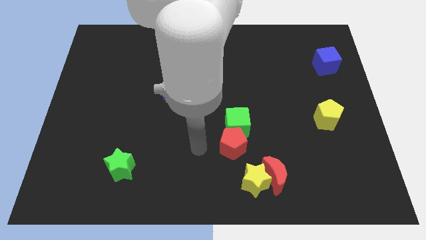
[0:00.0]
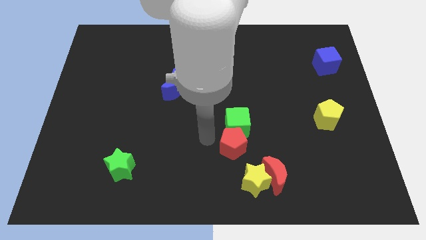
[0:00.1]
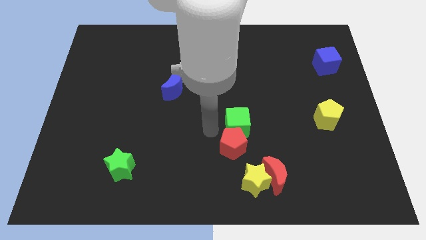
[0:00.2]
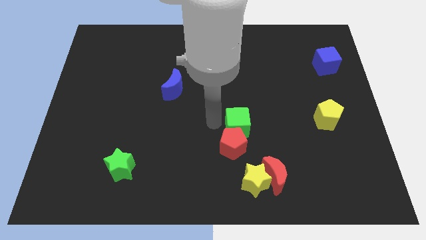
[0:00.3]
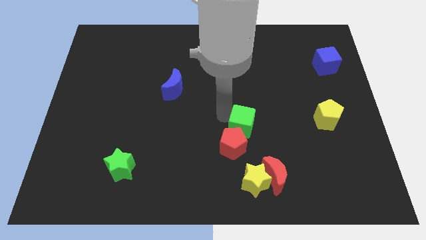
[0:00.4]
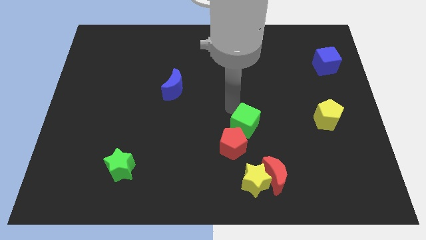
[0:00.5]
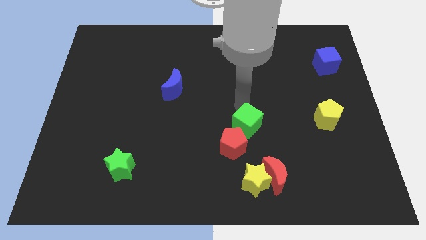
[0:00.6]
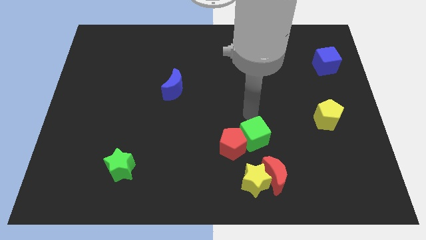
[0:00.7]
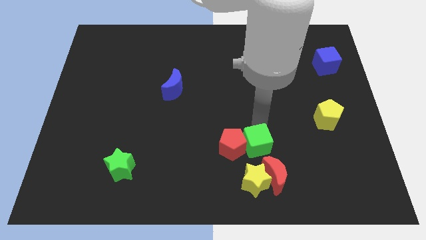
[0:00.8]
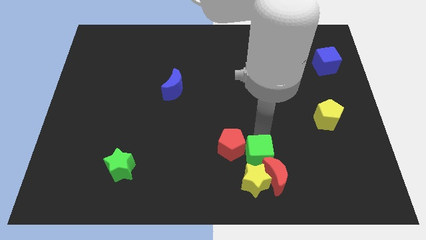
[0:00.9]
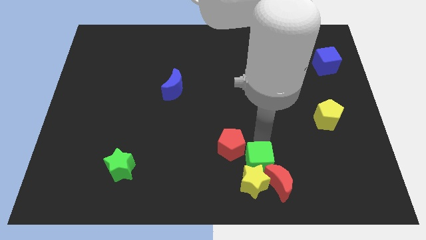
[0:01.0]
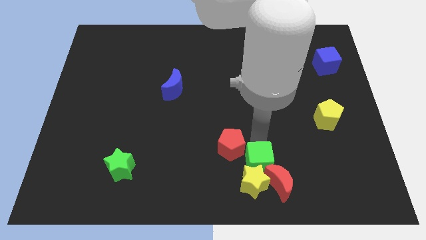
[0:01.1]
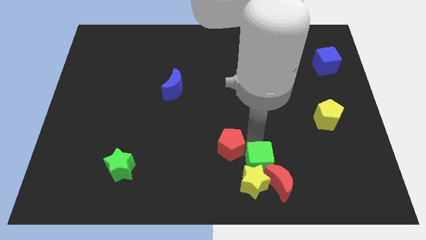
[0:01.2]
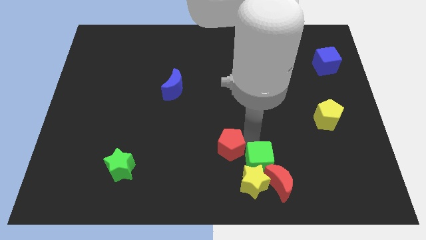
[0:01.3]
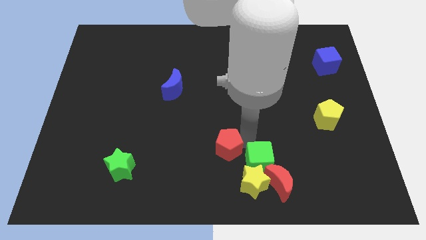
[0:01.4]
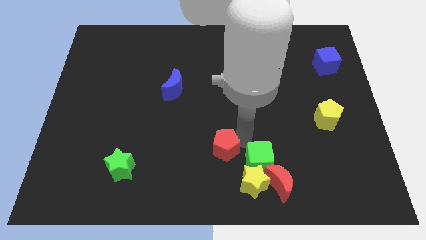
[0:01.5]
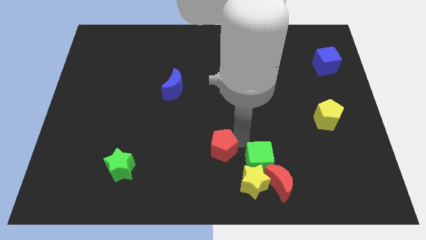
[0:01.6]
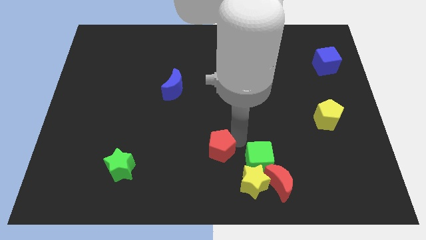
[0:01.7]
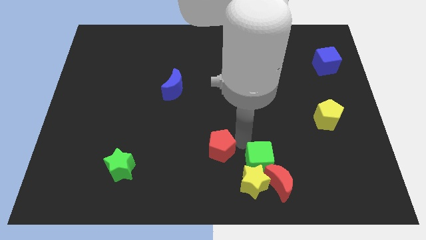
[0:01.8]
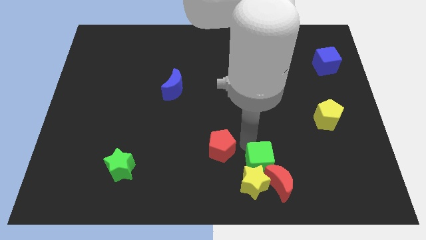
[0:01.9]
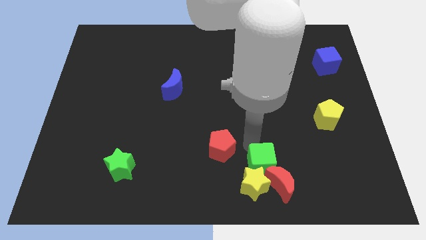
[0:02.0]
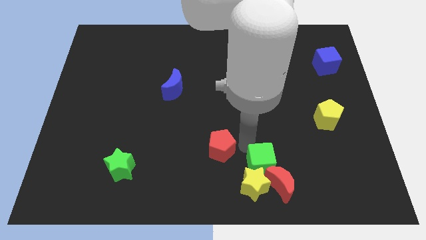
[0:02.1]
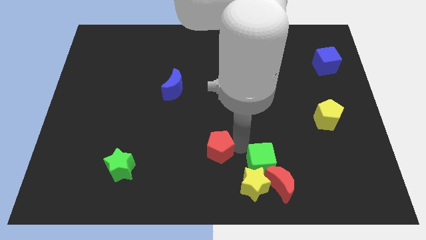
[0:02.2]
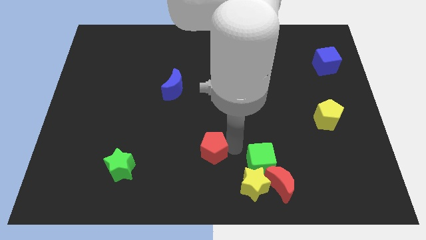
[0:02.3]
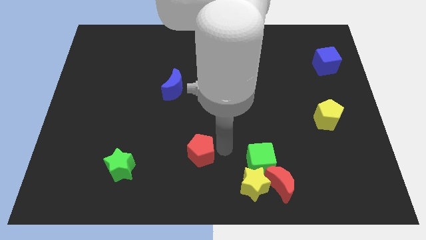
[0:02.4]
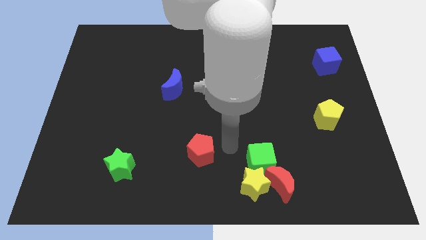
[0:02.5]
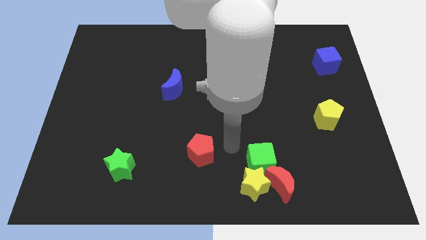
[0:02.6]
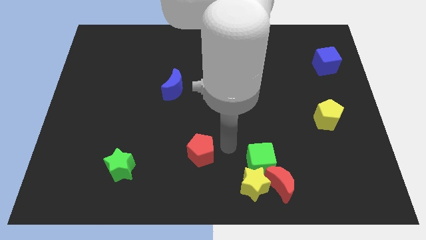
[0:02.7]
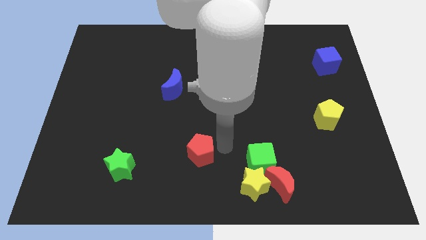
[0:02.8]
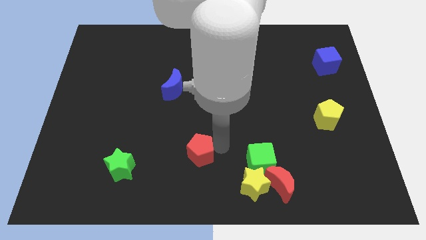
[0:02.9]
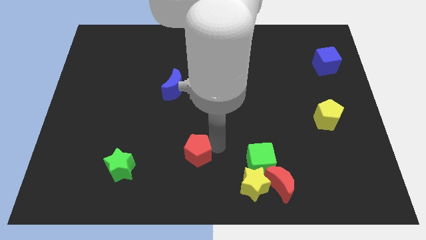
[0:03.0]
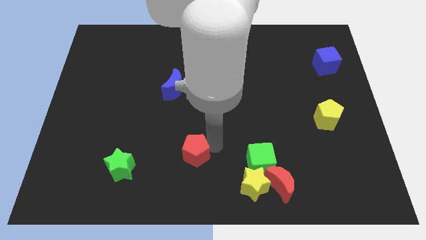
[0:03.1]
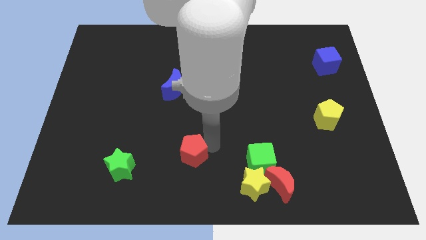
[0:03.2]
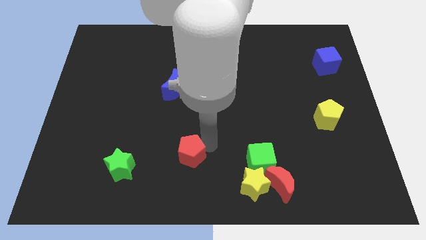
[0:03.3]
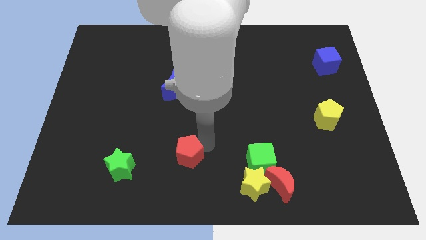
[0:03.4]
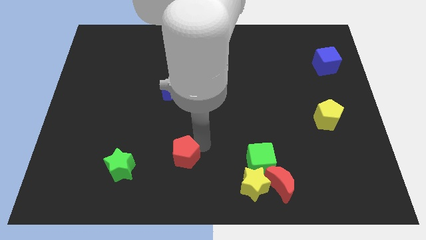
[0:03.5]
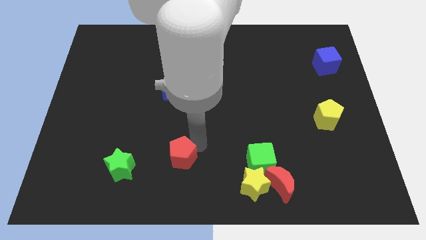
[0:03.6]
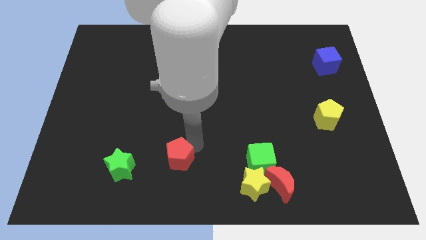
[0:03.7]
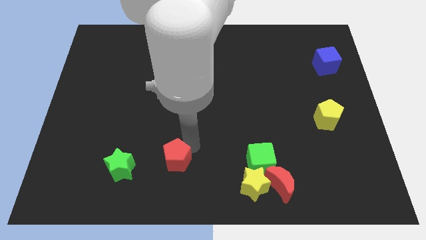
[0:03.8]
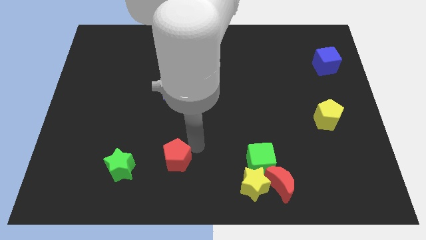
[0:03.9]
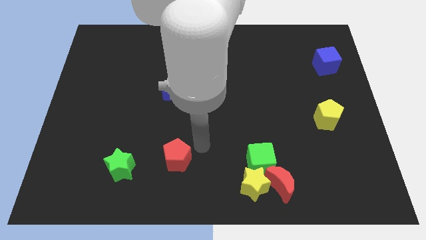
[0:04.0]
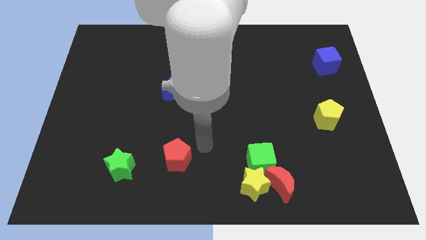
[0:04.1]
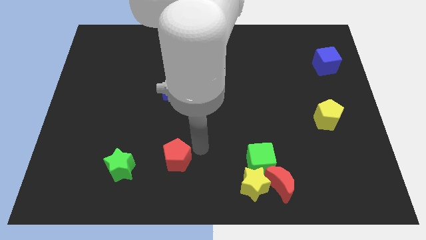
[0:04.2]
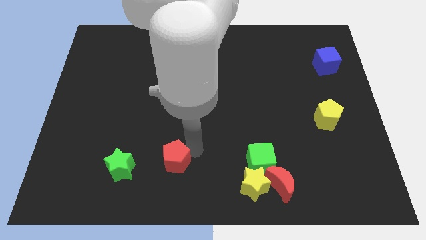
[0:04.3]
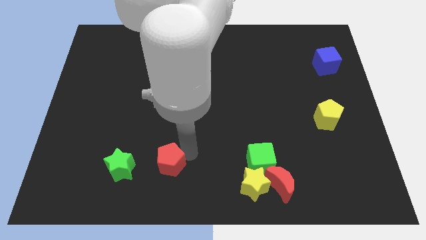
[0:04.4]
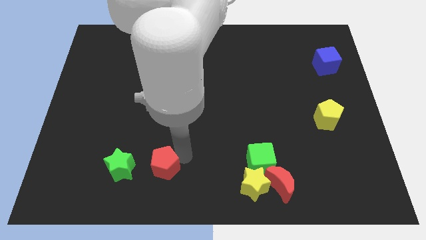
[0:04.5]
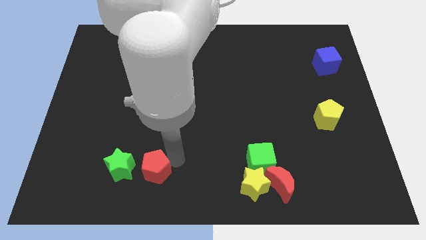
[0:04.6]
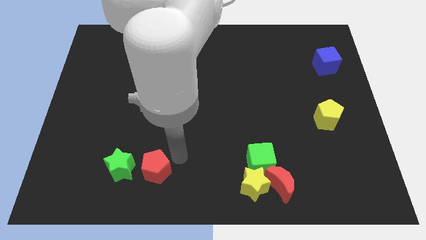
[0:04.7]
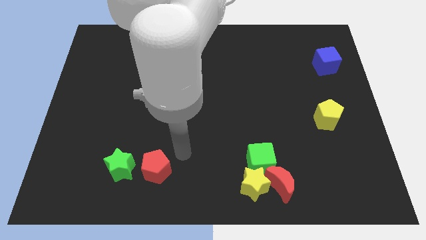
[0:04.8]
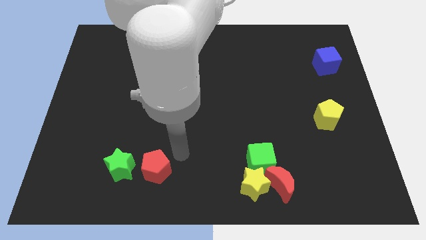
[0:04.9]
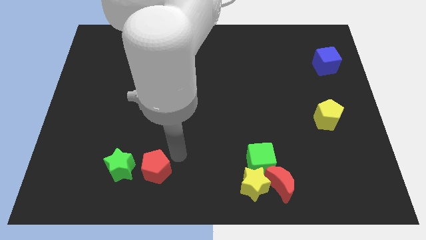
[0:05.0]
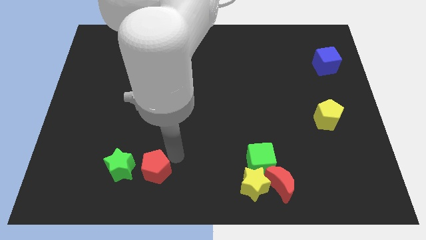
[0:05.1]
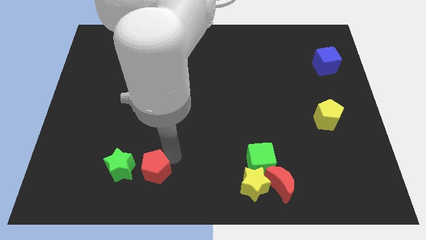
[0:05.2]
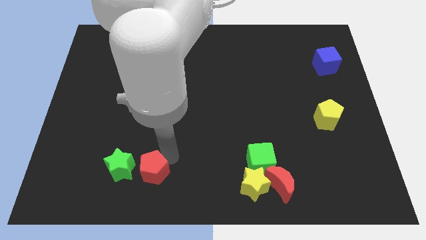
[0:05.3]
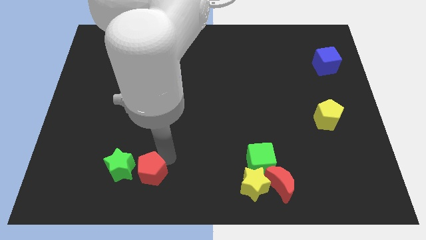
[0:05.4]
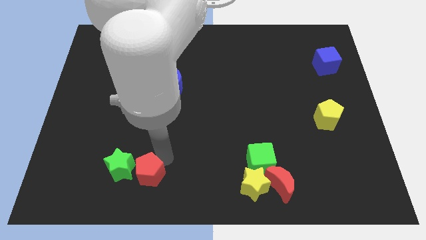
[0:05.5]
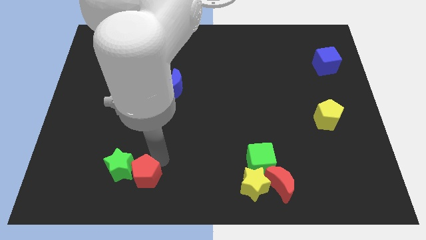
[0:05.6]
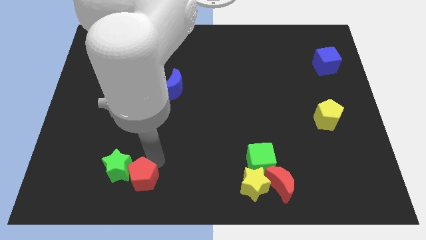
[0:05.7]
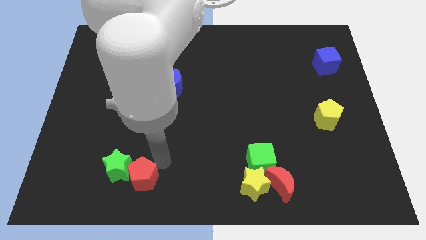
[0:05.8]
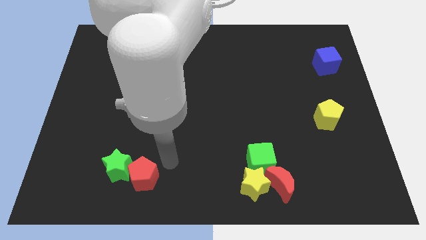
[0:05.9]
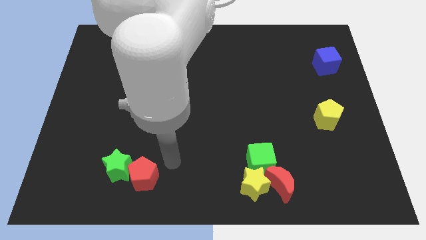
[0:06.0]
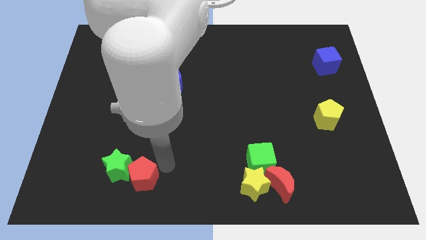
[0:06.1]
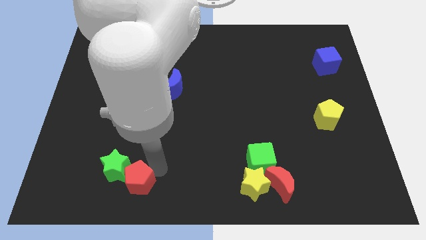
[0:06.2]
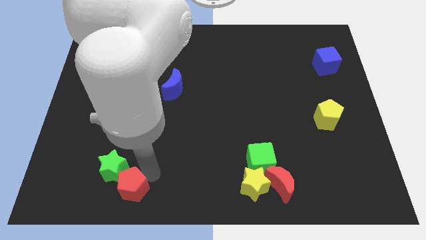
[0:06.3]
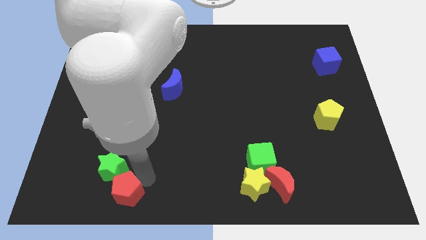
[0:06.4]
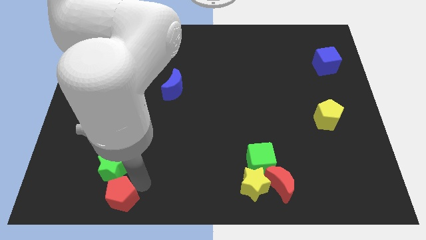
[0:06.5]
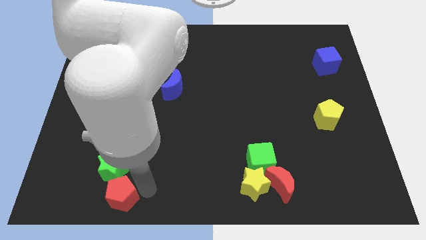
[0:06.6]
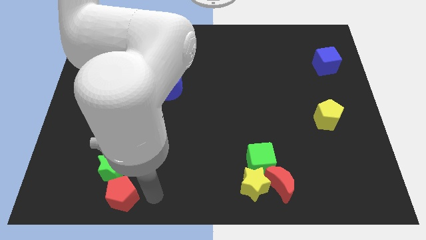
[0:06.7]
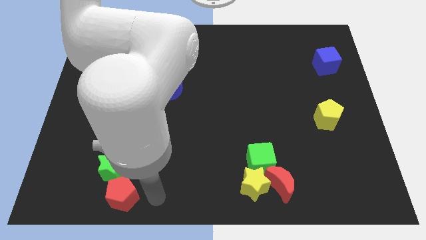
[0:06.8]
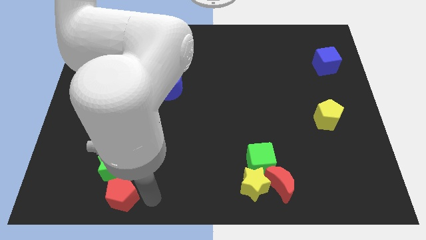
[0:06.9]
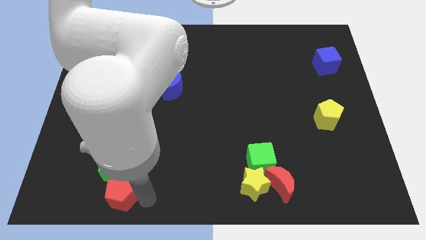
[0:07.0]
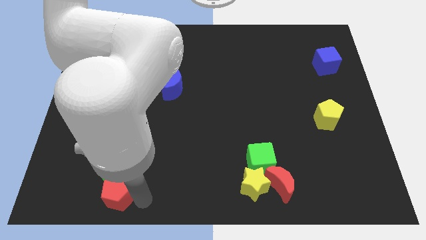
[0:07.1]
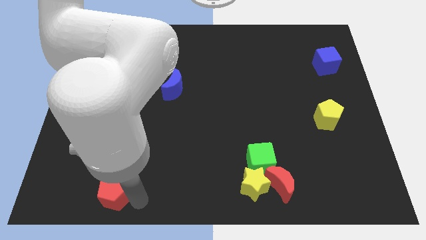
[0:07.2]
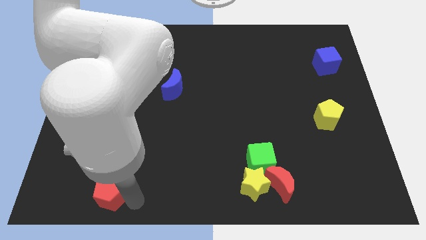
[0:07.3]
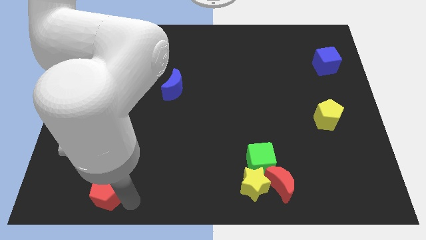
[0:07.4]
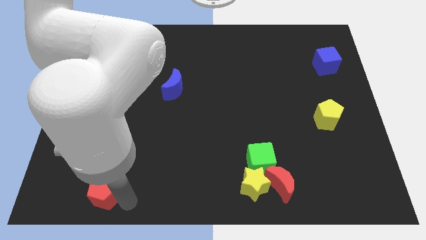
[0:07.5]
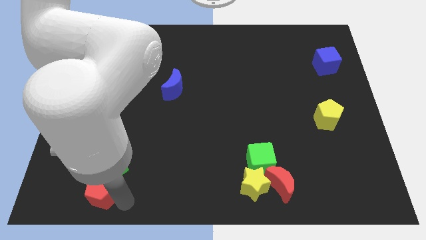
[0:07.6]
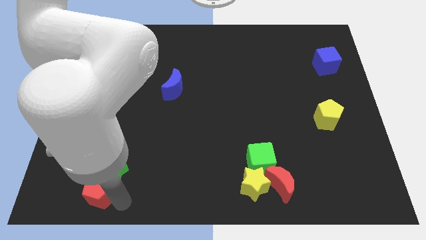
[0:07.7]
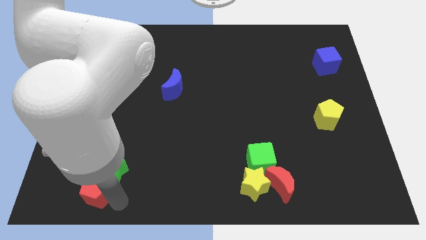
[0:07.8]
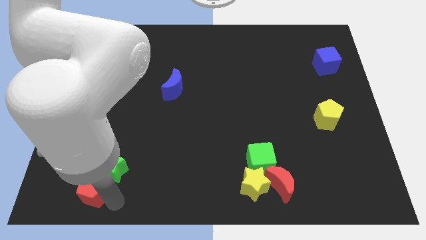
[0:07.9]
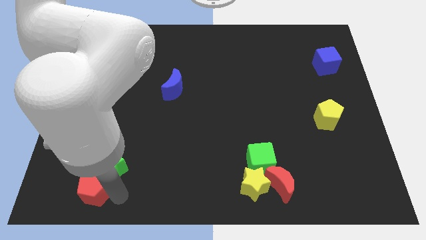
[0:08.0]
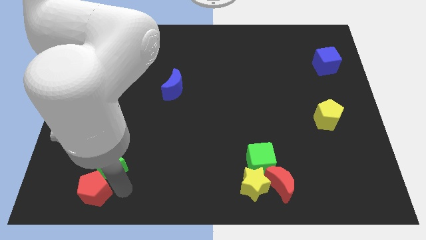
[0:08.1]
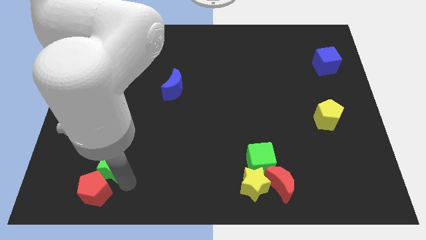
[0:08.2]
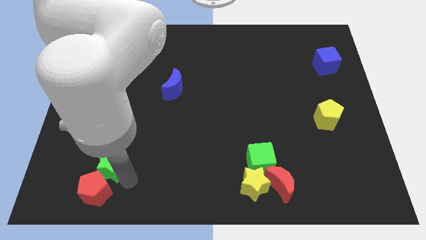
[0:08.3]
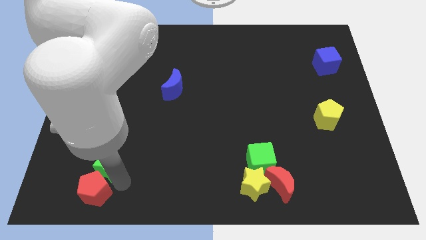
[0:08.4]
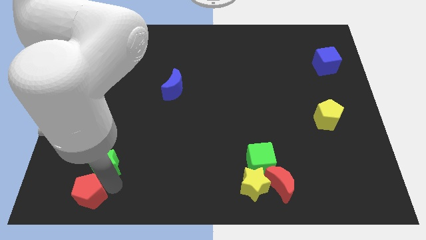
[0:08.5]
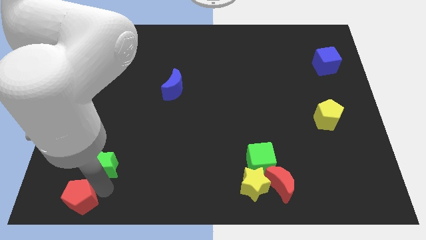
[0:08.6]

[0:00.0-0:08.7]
push the red pentagon to the bottom left corner
